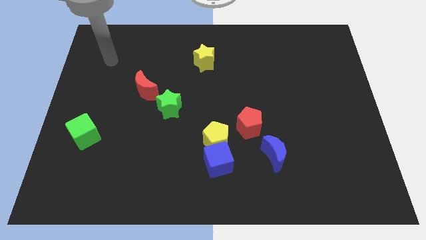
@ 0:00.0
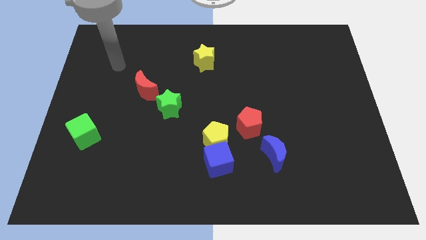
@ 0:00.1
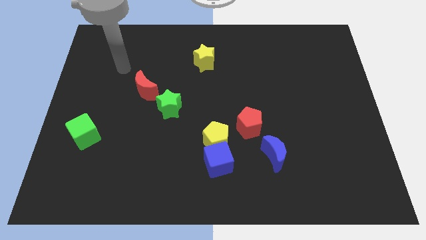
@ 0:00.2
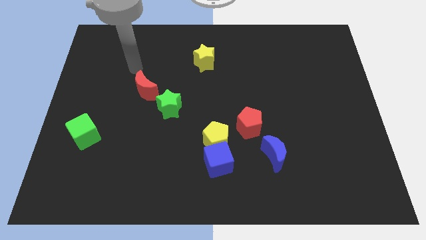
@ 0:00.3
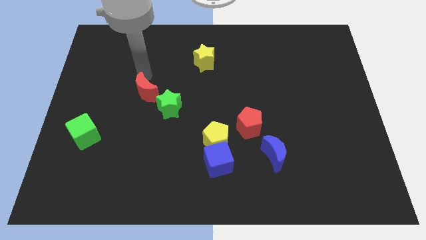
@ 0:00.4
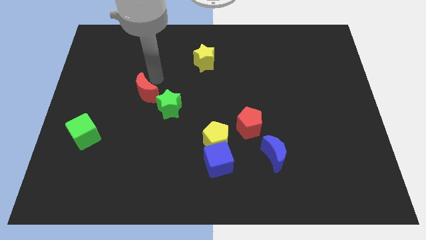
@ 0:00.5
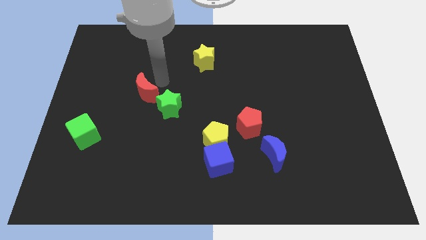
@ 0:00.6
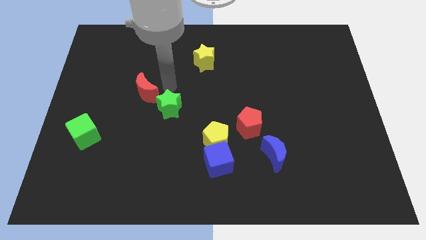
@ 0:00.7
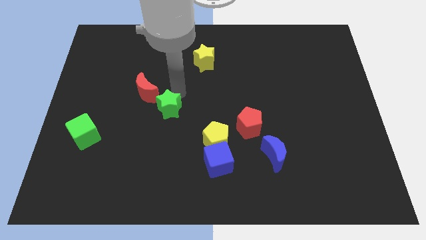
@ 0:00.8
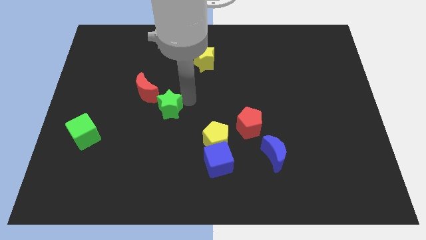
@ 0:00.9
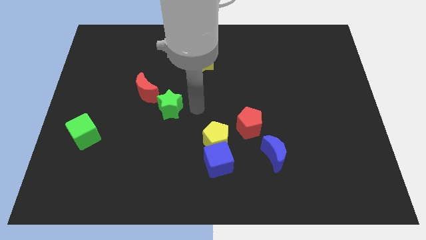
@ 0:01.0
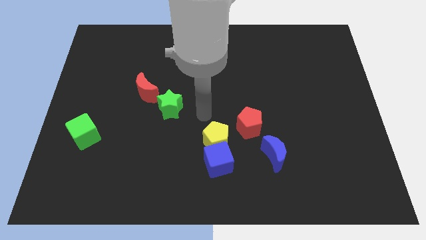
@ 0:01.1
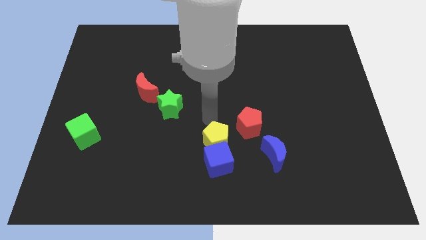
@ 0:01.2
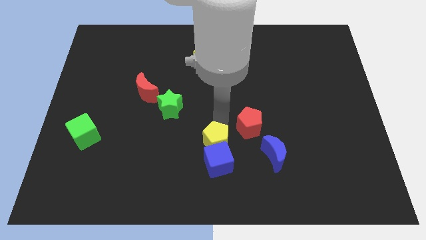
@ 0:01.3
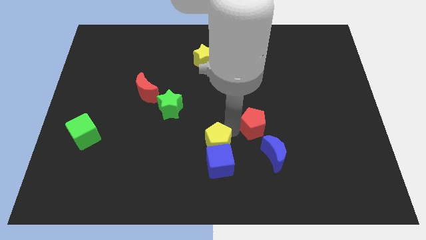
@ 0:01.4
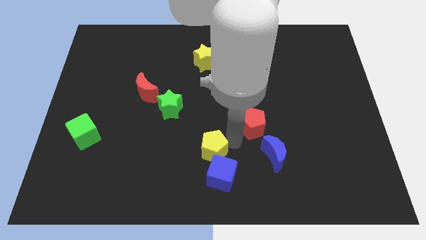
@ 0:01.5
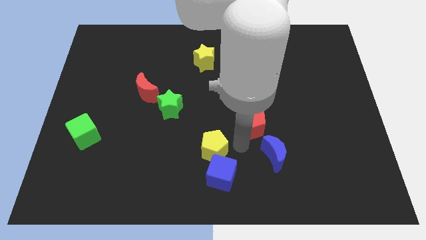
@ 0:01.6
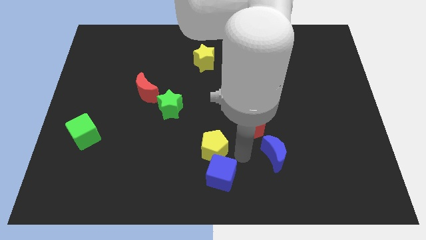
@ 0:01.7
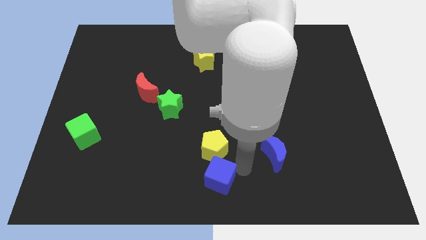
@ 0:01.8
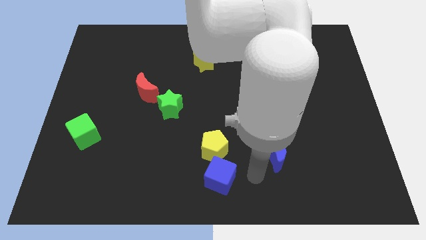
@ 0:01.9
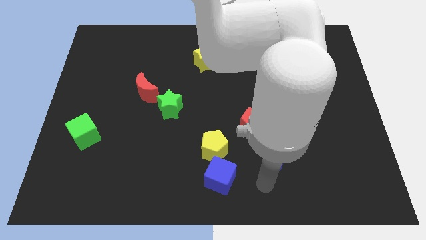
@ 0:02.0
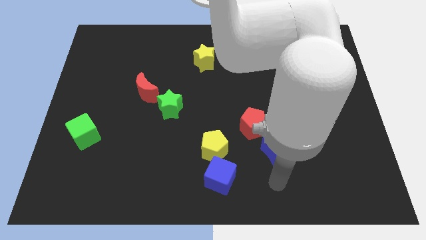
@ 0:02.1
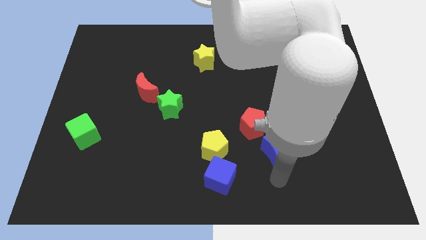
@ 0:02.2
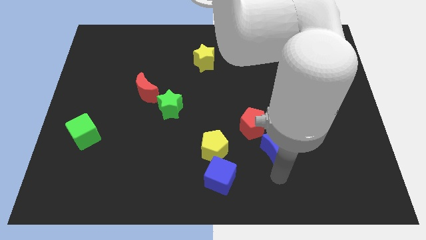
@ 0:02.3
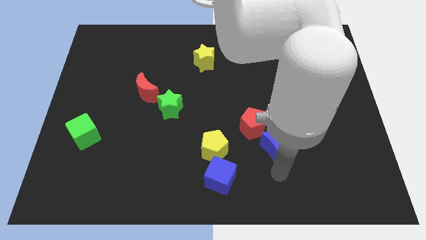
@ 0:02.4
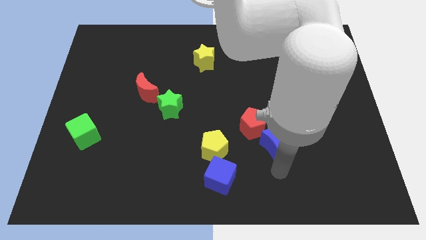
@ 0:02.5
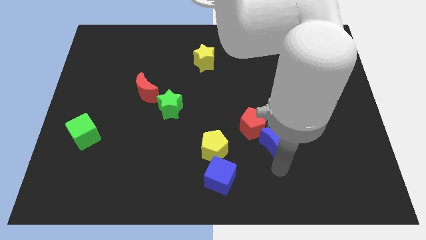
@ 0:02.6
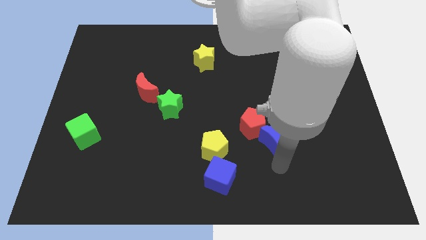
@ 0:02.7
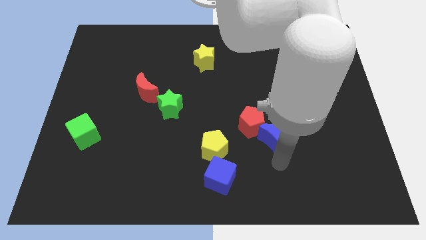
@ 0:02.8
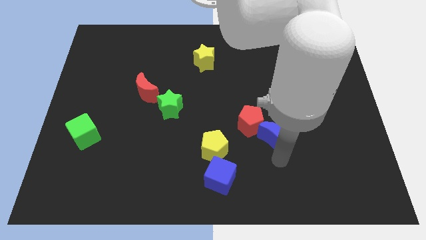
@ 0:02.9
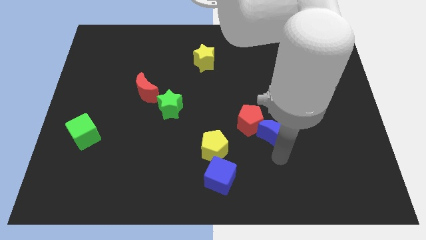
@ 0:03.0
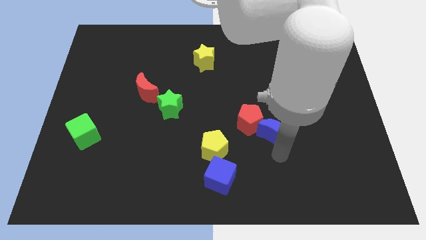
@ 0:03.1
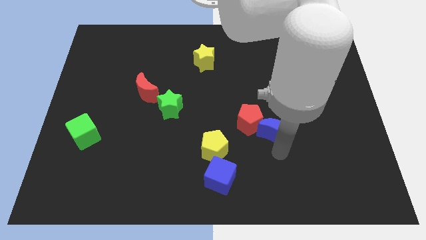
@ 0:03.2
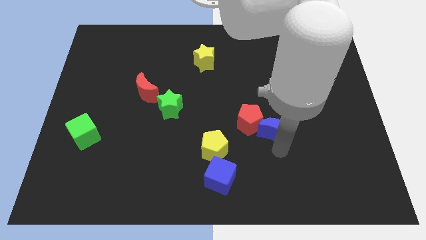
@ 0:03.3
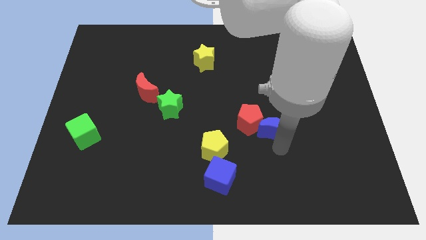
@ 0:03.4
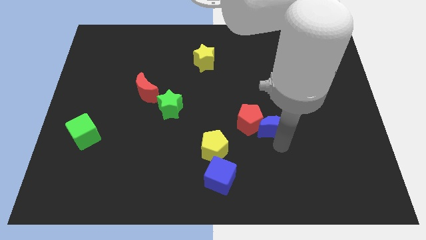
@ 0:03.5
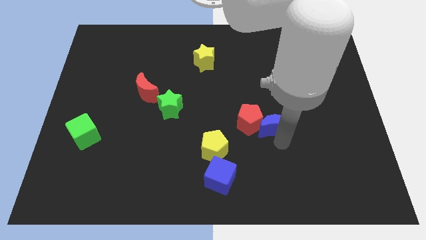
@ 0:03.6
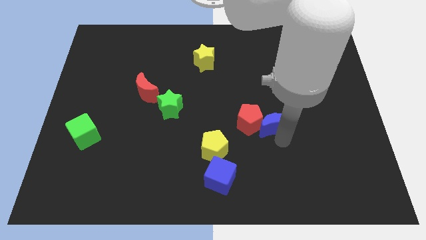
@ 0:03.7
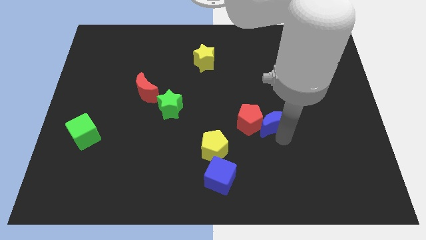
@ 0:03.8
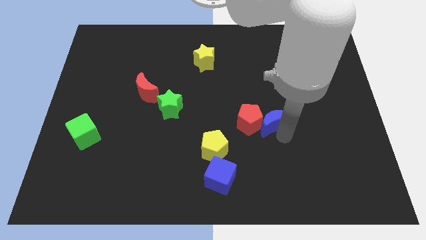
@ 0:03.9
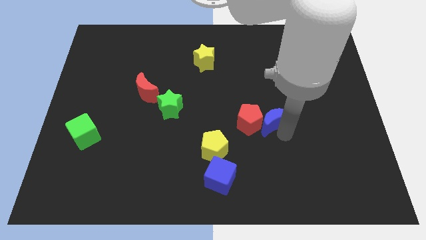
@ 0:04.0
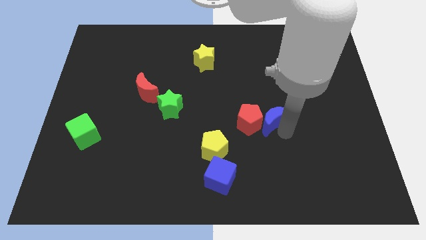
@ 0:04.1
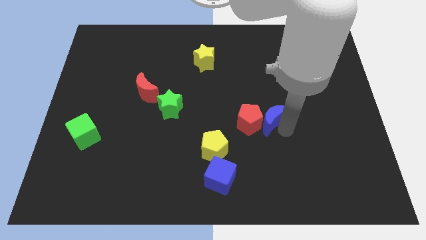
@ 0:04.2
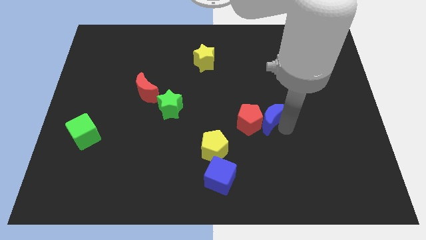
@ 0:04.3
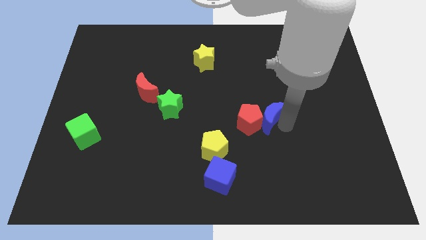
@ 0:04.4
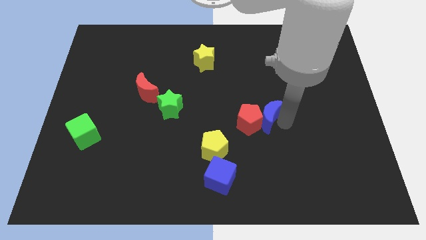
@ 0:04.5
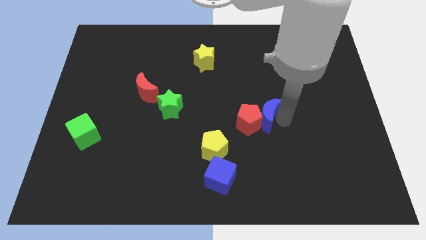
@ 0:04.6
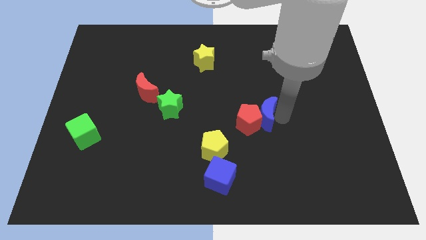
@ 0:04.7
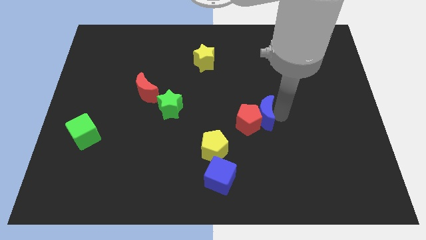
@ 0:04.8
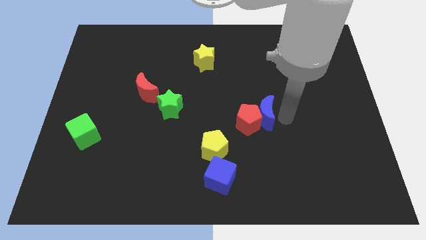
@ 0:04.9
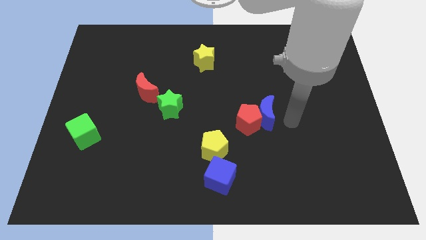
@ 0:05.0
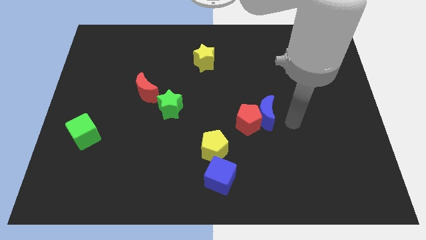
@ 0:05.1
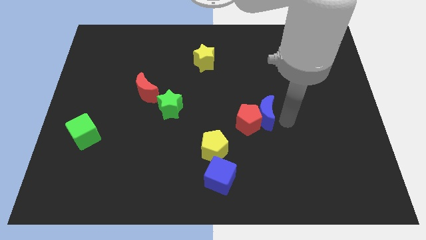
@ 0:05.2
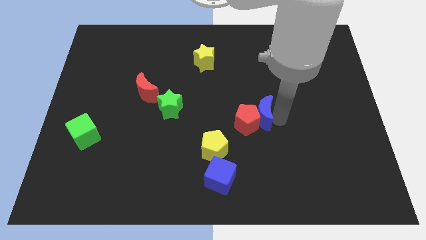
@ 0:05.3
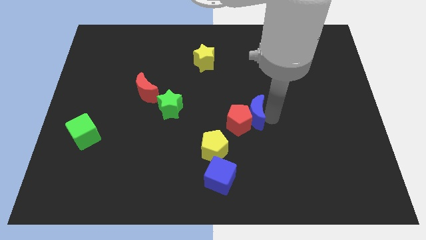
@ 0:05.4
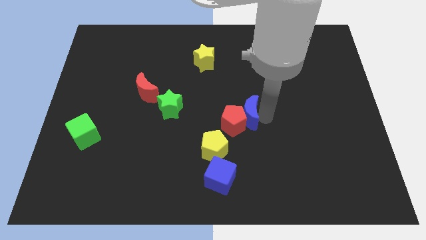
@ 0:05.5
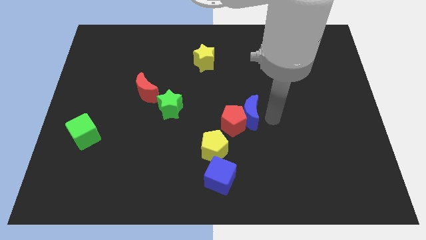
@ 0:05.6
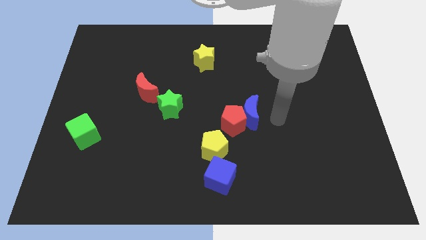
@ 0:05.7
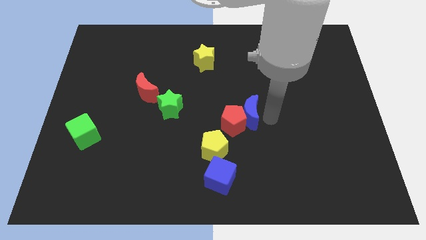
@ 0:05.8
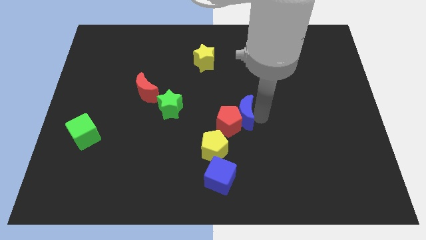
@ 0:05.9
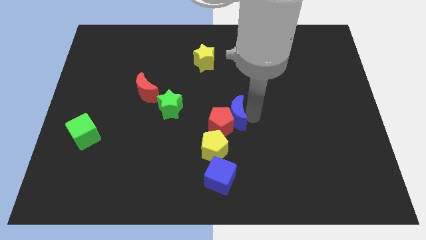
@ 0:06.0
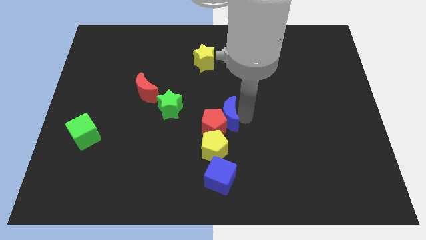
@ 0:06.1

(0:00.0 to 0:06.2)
move the blue moon above the yellow pentagon
